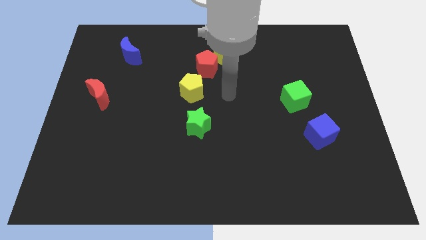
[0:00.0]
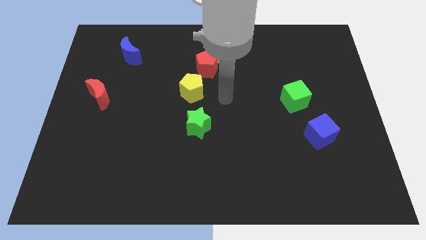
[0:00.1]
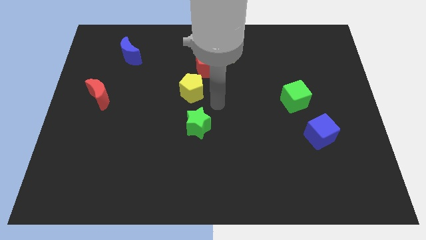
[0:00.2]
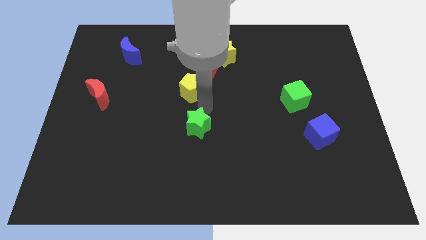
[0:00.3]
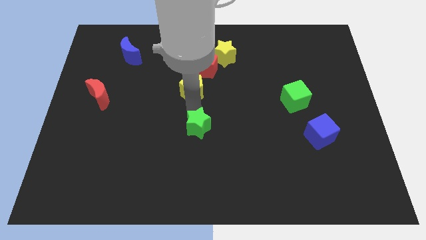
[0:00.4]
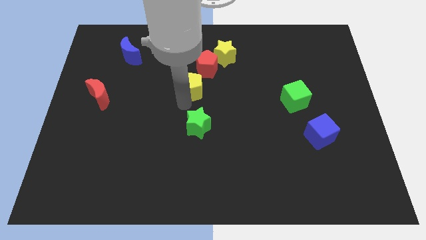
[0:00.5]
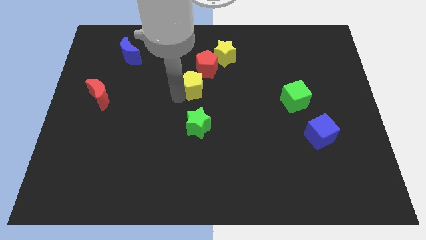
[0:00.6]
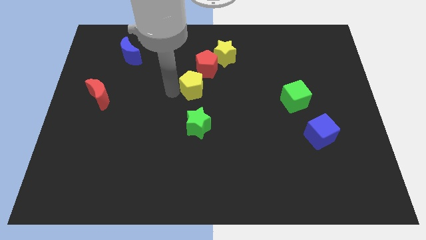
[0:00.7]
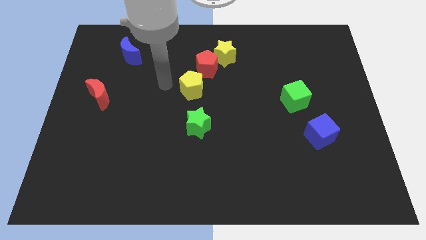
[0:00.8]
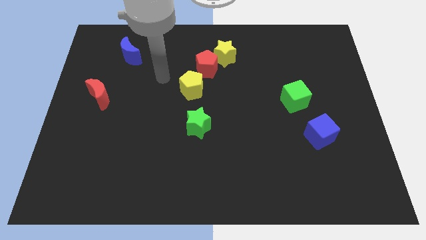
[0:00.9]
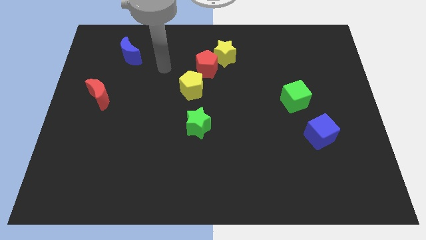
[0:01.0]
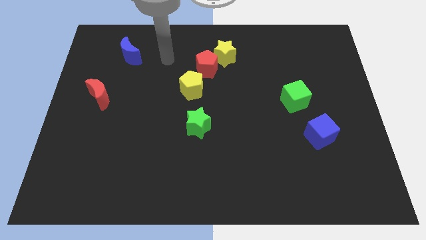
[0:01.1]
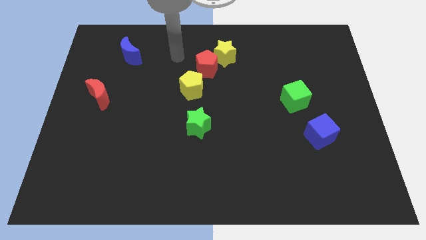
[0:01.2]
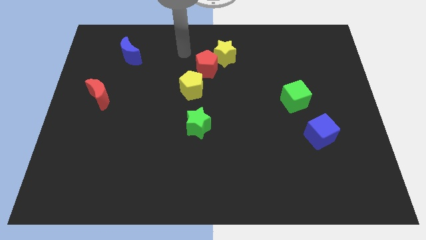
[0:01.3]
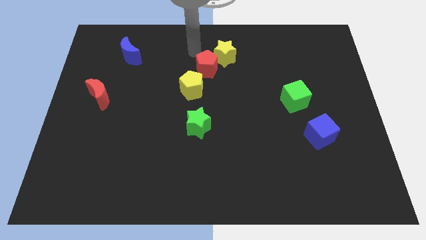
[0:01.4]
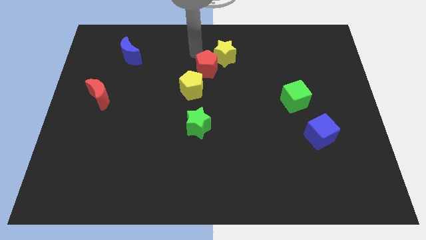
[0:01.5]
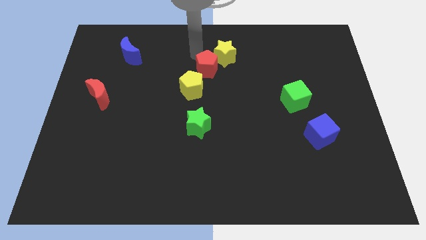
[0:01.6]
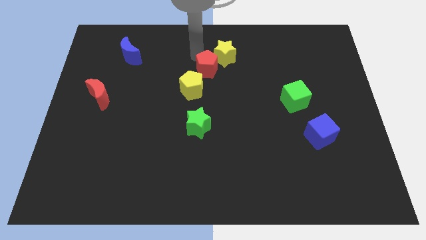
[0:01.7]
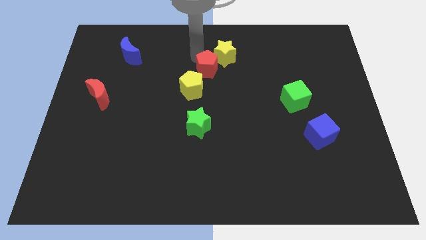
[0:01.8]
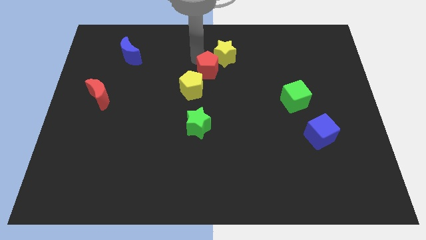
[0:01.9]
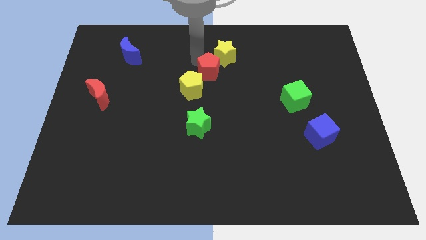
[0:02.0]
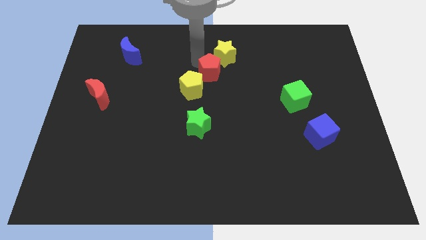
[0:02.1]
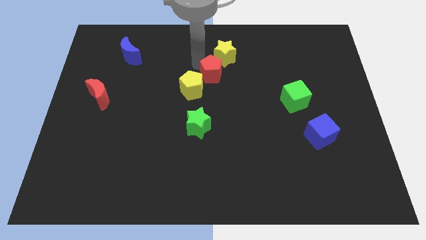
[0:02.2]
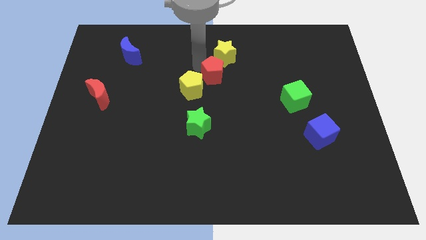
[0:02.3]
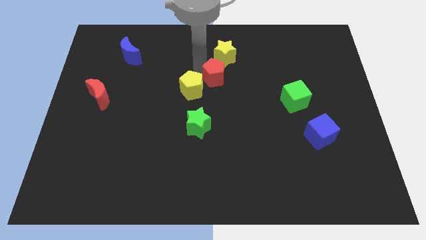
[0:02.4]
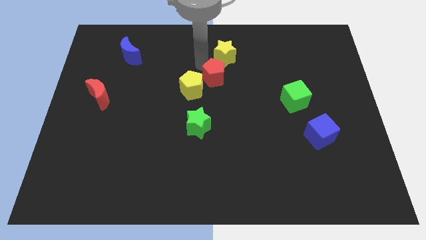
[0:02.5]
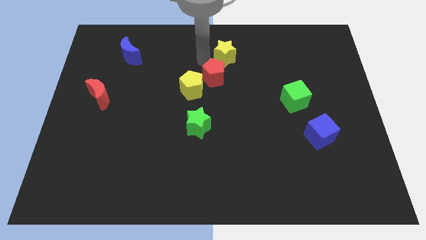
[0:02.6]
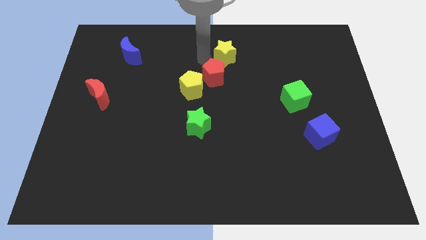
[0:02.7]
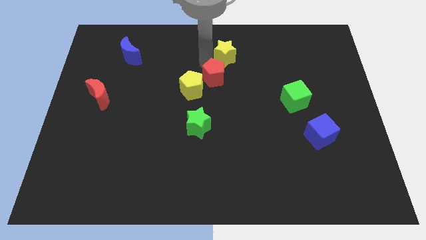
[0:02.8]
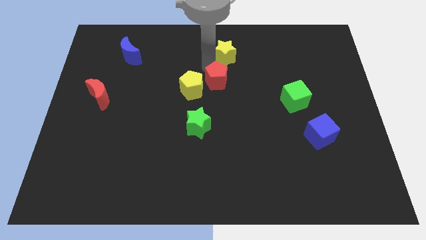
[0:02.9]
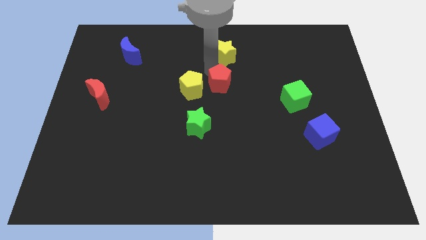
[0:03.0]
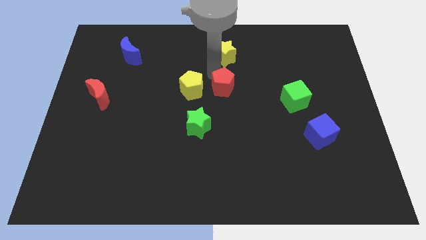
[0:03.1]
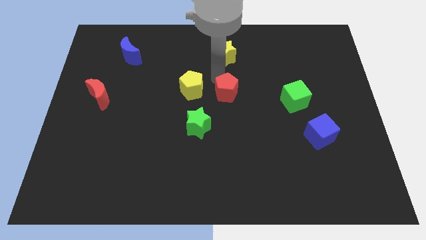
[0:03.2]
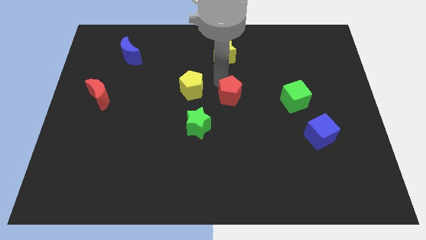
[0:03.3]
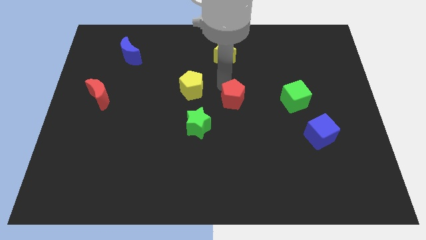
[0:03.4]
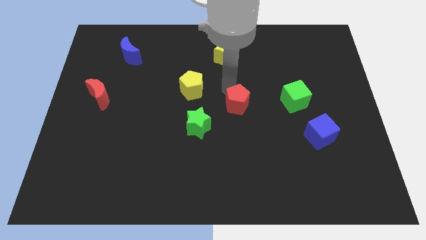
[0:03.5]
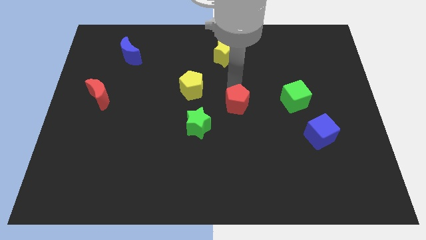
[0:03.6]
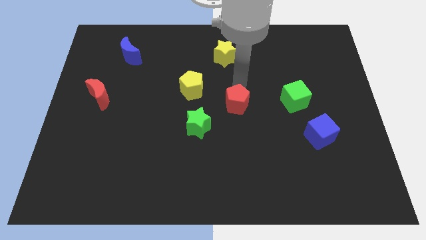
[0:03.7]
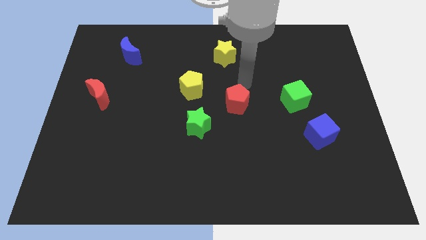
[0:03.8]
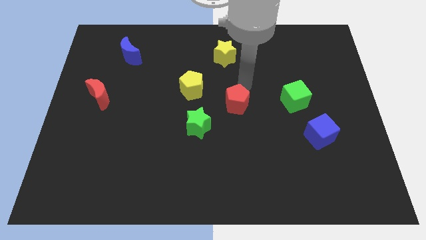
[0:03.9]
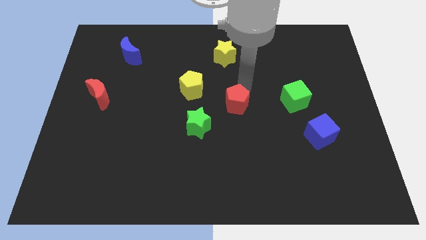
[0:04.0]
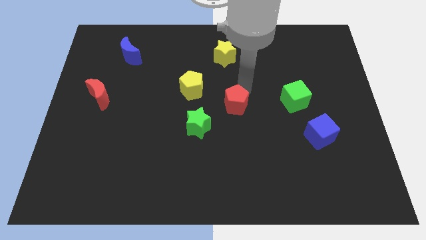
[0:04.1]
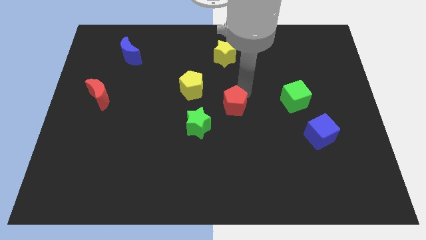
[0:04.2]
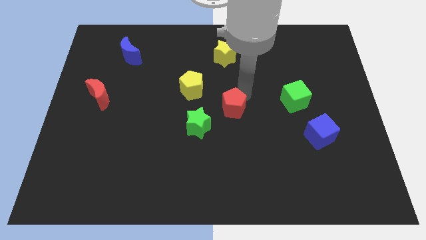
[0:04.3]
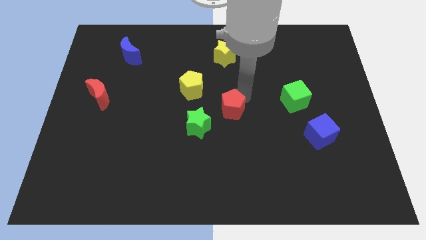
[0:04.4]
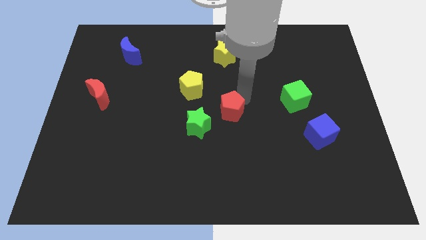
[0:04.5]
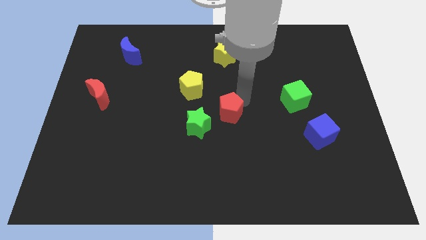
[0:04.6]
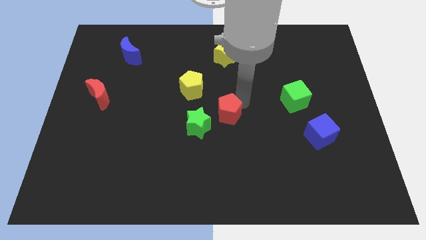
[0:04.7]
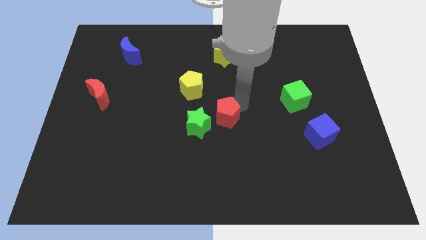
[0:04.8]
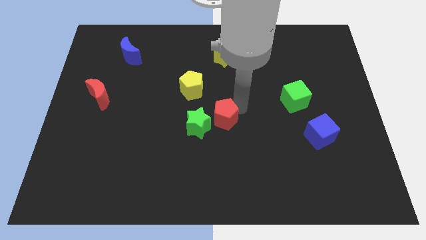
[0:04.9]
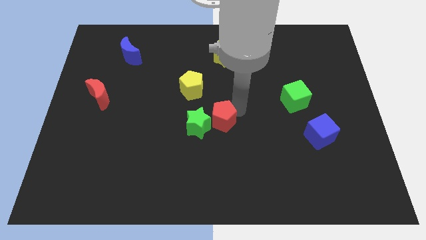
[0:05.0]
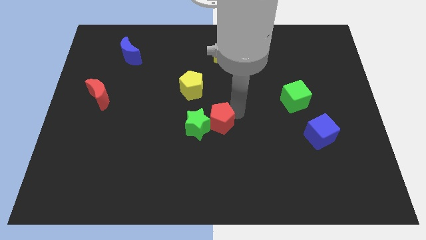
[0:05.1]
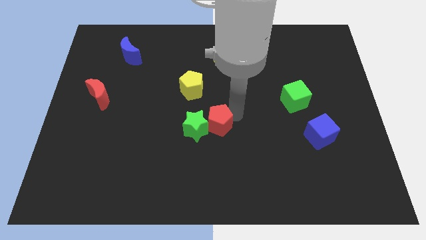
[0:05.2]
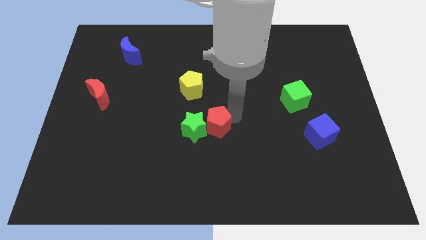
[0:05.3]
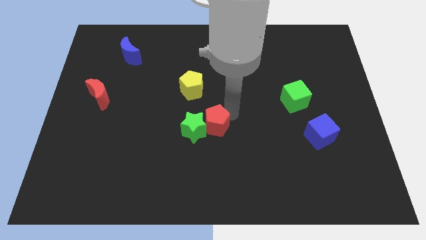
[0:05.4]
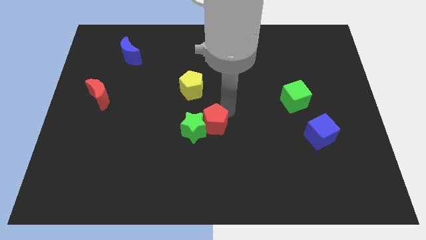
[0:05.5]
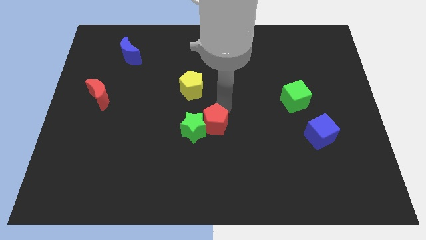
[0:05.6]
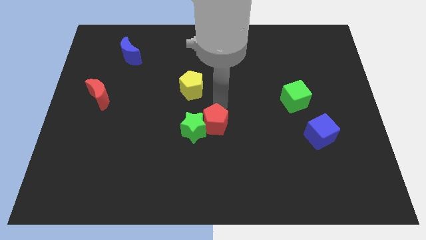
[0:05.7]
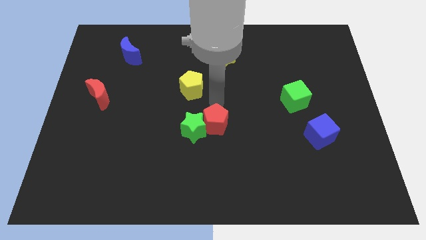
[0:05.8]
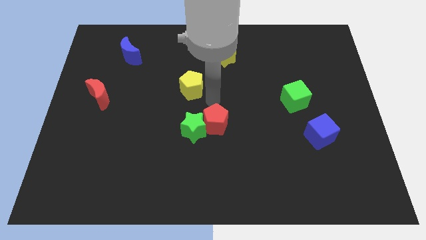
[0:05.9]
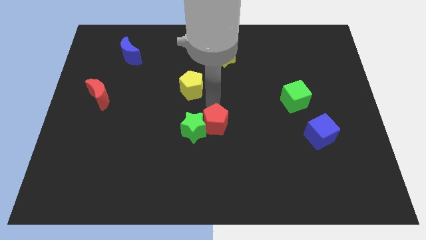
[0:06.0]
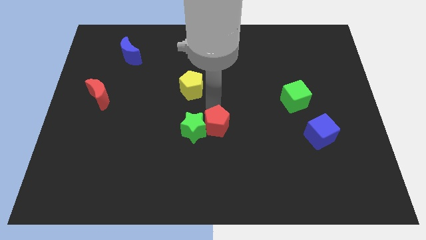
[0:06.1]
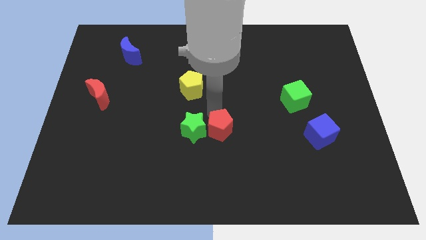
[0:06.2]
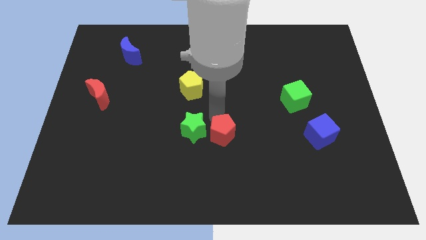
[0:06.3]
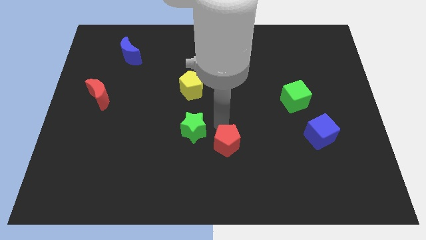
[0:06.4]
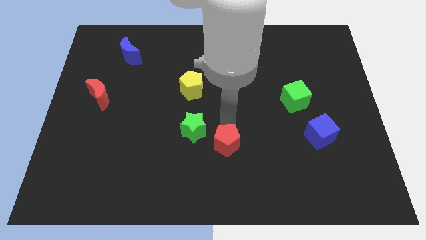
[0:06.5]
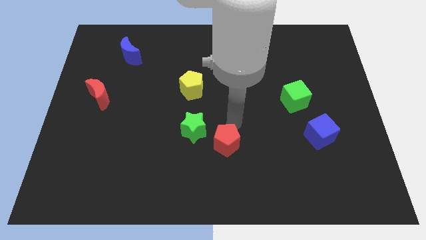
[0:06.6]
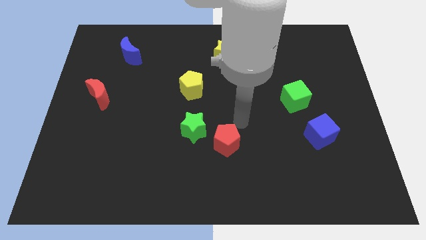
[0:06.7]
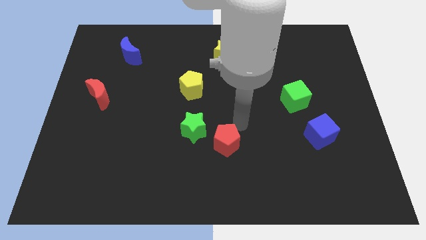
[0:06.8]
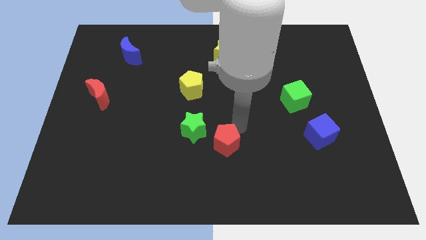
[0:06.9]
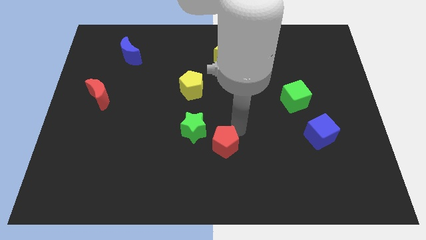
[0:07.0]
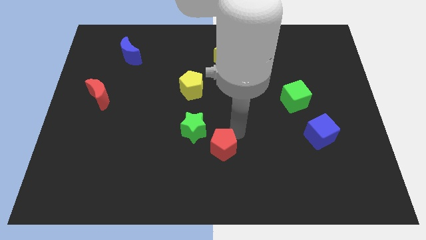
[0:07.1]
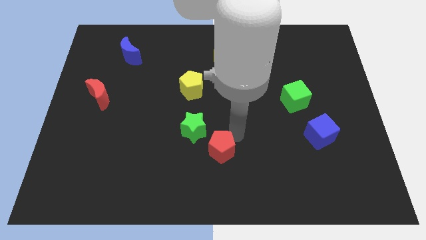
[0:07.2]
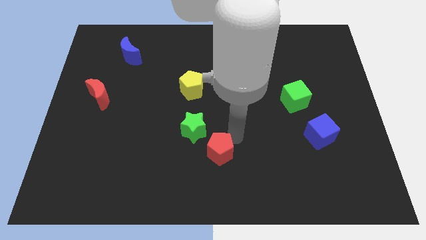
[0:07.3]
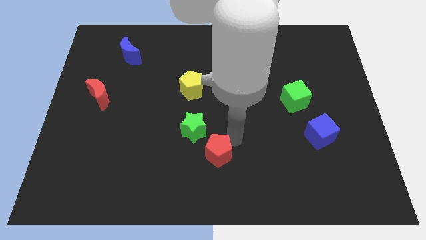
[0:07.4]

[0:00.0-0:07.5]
put the red pentagon to the bottom
